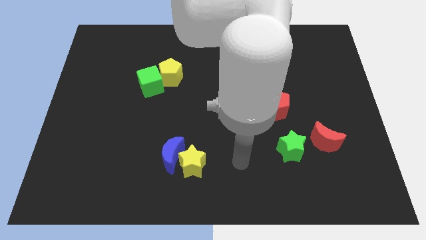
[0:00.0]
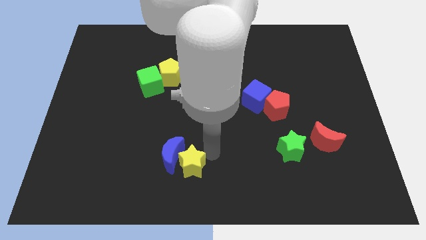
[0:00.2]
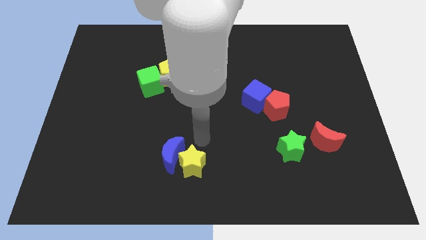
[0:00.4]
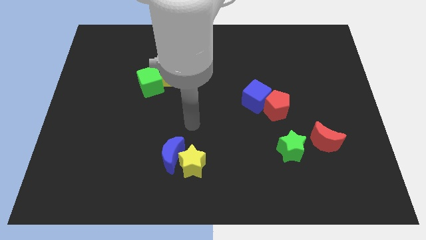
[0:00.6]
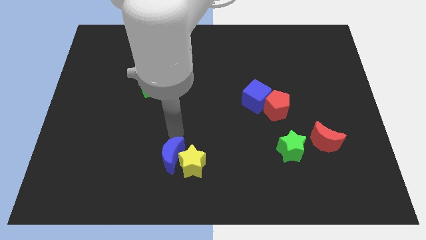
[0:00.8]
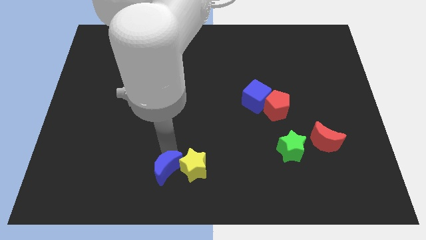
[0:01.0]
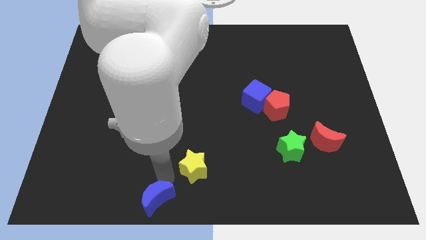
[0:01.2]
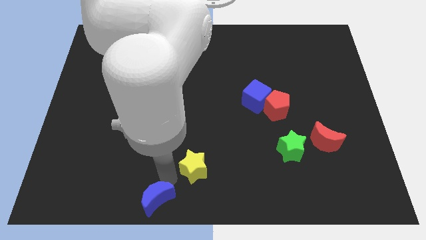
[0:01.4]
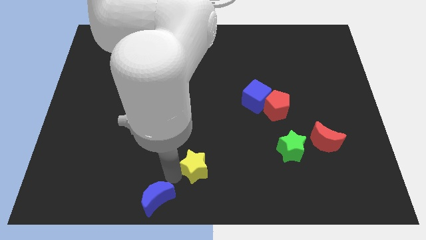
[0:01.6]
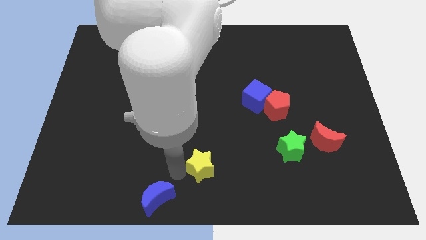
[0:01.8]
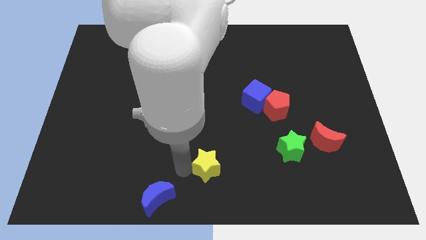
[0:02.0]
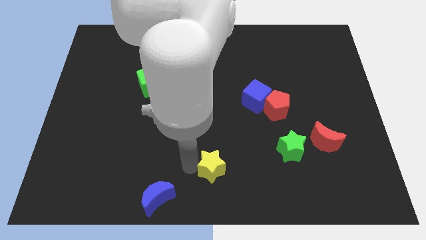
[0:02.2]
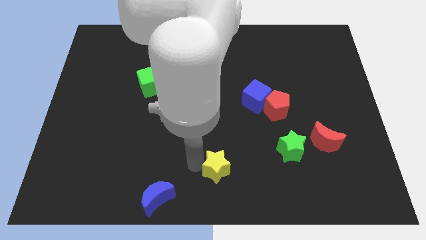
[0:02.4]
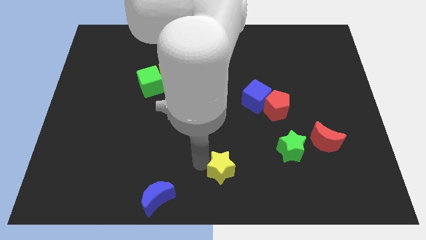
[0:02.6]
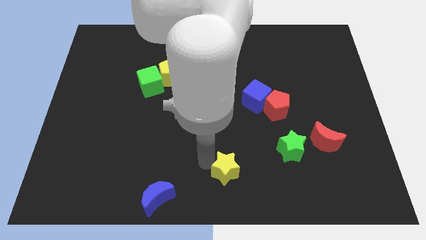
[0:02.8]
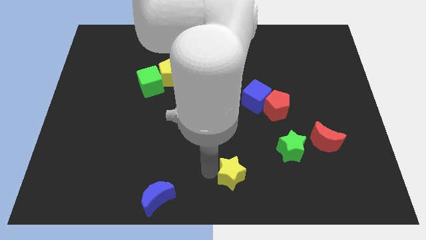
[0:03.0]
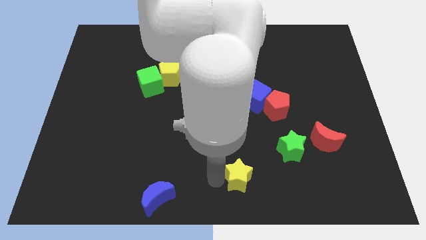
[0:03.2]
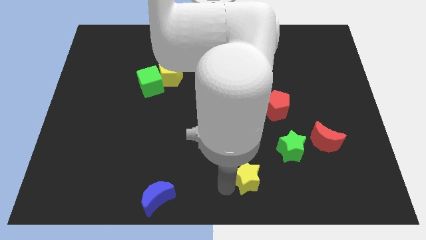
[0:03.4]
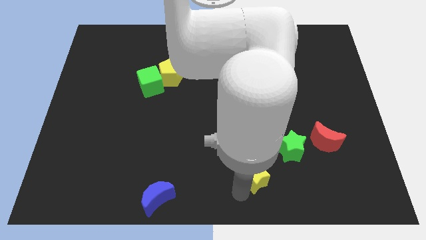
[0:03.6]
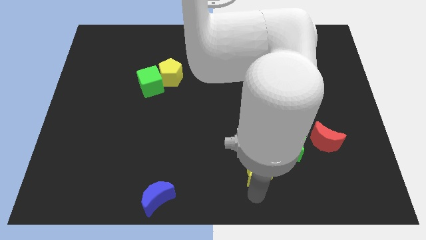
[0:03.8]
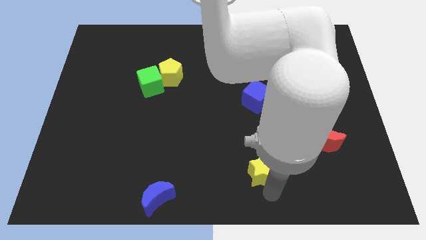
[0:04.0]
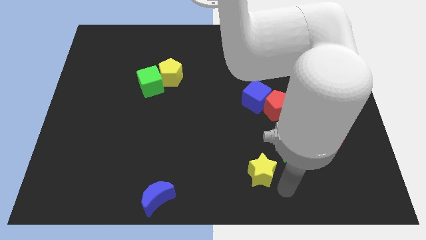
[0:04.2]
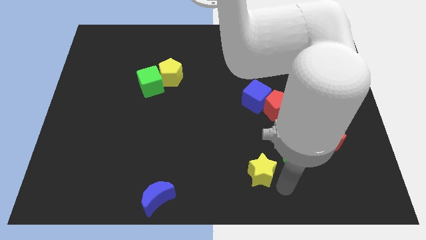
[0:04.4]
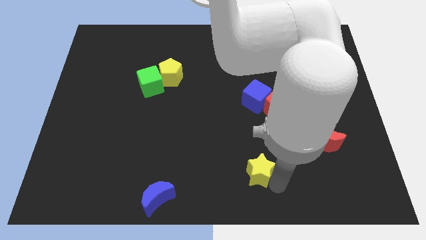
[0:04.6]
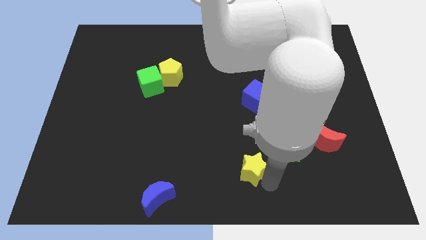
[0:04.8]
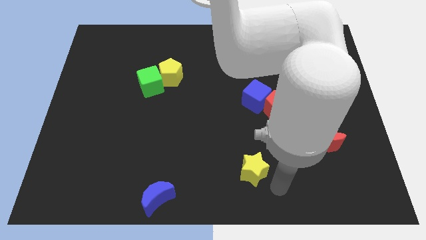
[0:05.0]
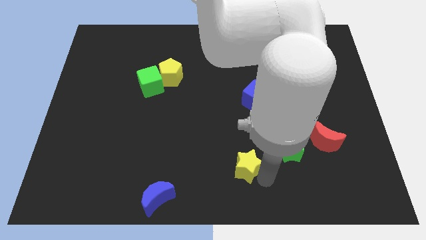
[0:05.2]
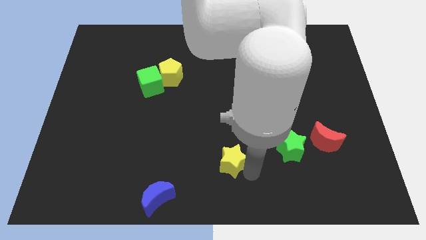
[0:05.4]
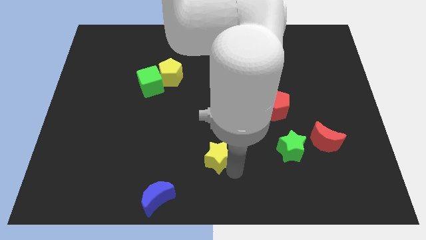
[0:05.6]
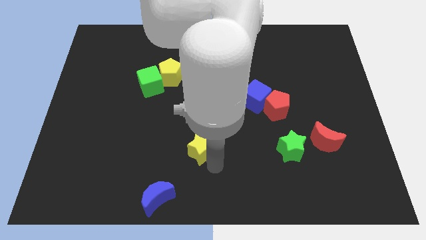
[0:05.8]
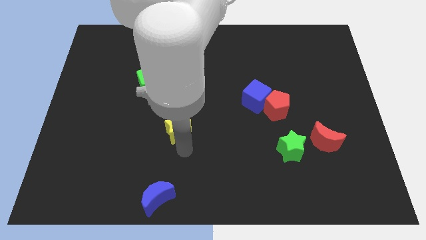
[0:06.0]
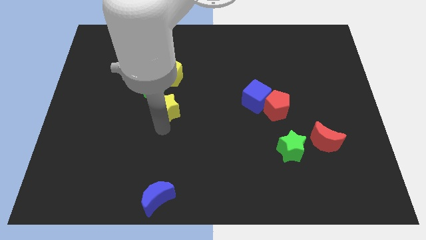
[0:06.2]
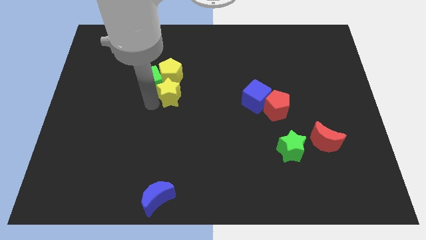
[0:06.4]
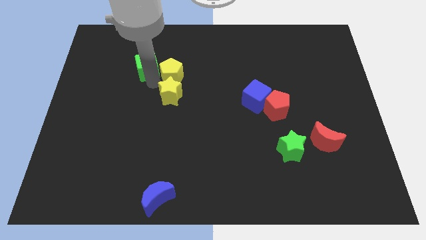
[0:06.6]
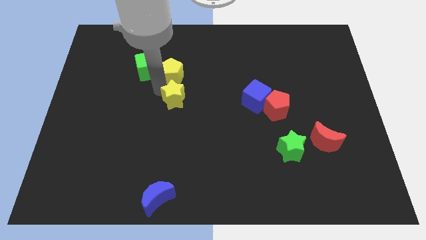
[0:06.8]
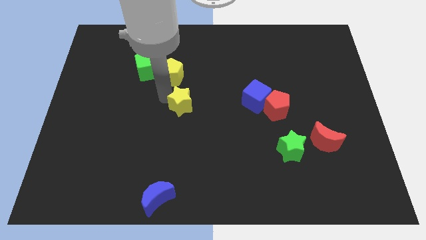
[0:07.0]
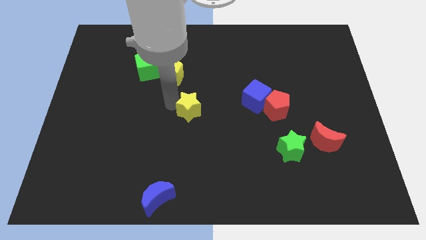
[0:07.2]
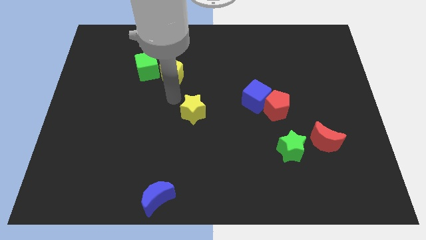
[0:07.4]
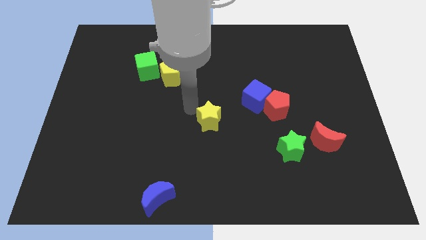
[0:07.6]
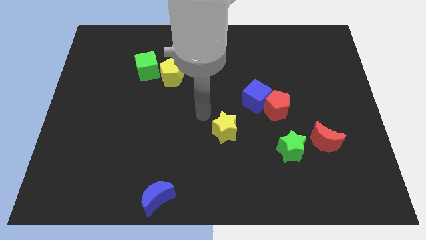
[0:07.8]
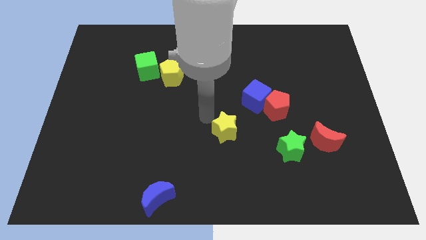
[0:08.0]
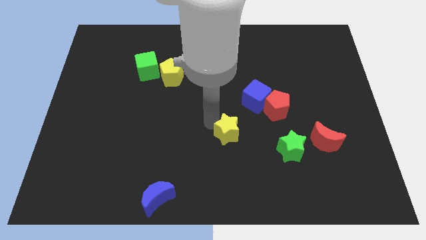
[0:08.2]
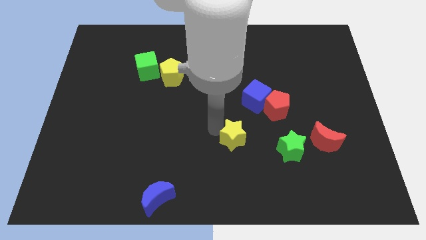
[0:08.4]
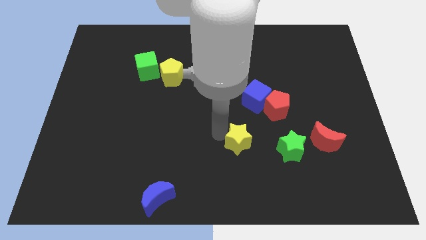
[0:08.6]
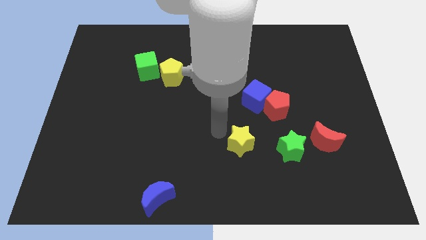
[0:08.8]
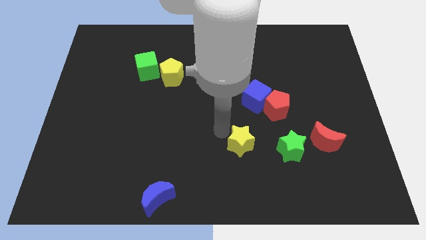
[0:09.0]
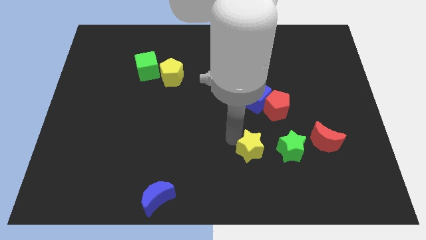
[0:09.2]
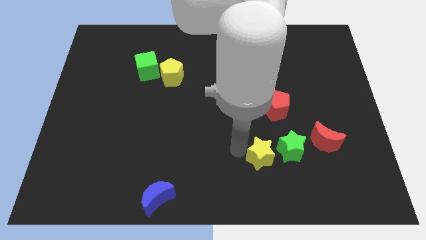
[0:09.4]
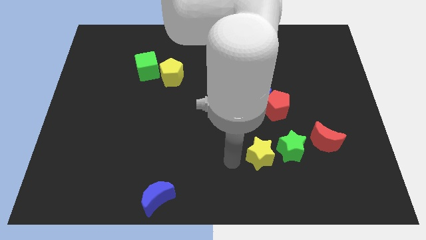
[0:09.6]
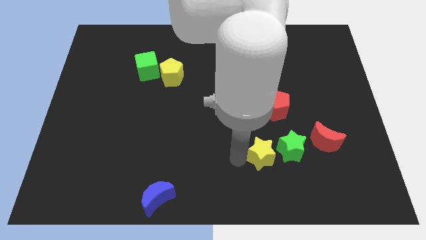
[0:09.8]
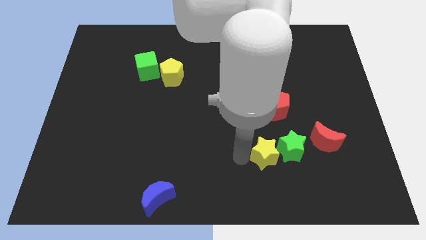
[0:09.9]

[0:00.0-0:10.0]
put the yellow star to the green star

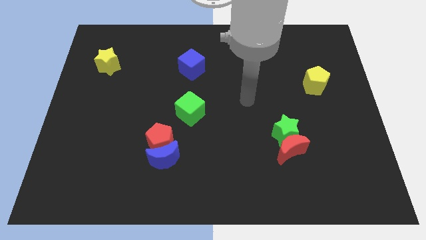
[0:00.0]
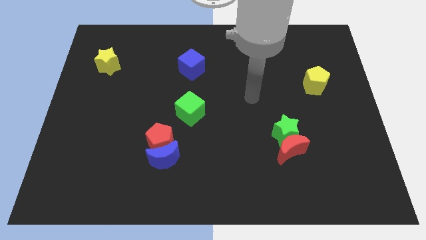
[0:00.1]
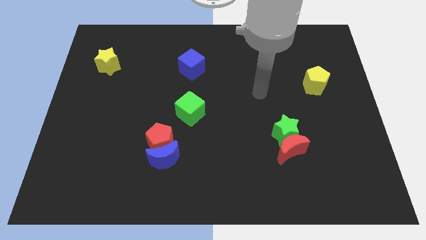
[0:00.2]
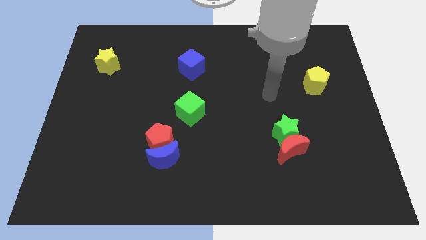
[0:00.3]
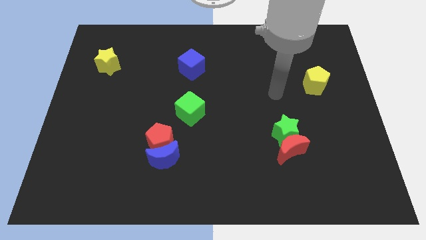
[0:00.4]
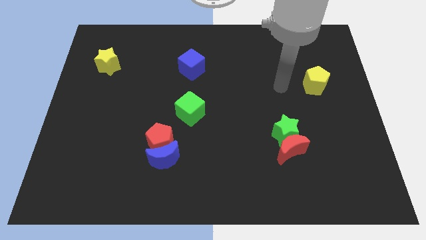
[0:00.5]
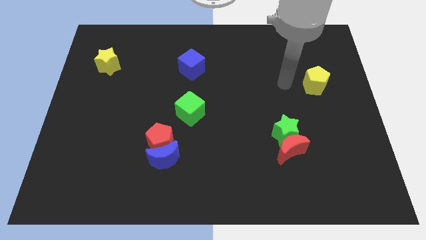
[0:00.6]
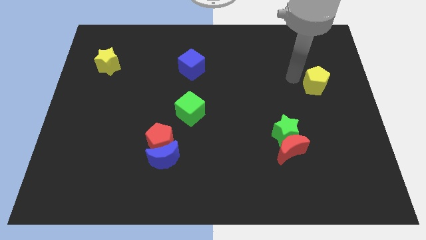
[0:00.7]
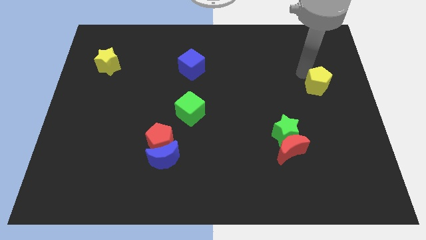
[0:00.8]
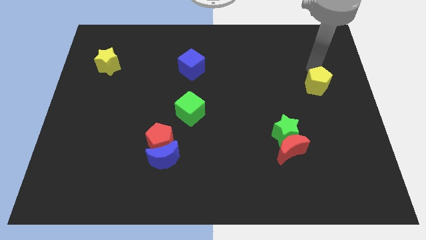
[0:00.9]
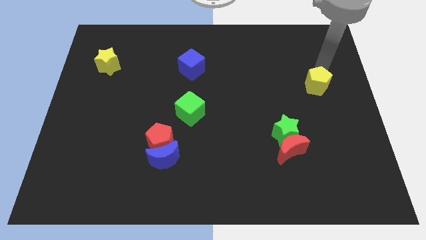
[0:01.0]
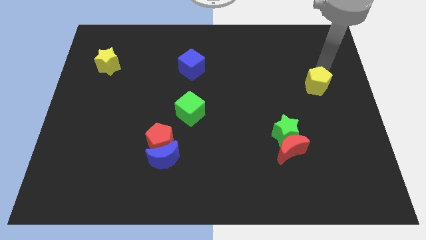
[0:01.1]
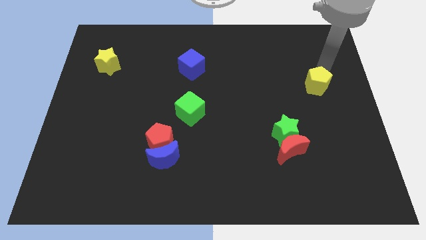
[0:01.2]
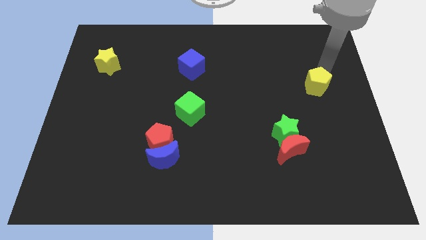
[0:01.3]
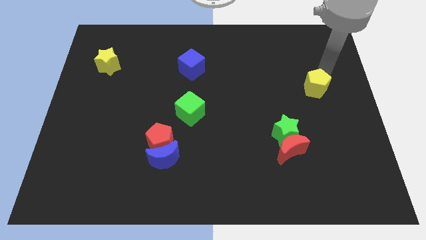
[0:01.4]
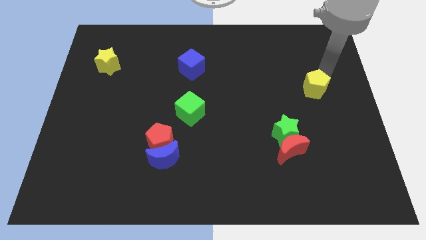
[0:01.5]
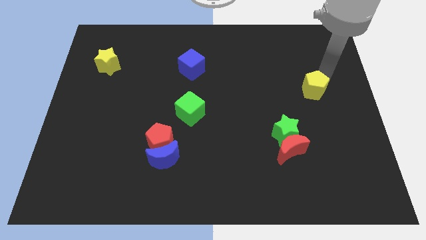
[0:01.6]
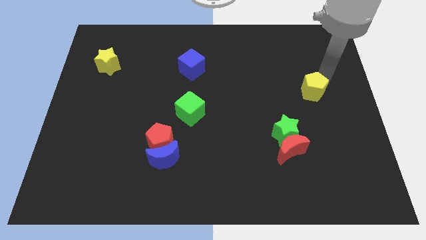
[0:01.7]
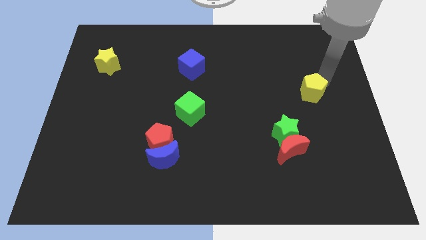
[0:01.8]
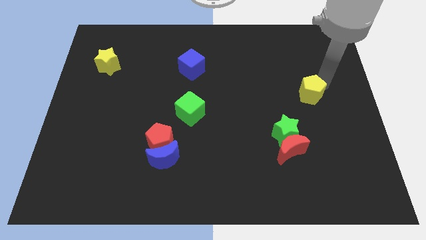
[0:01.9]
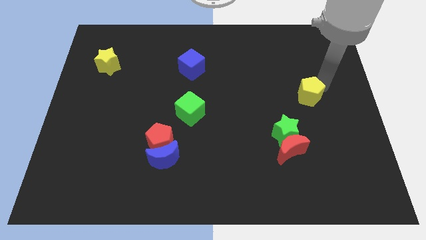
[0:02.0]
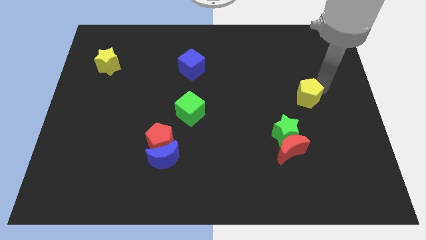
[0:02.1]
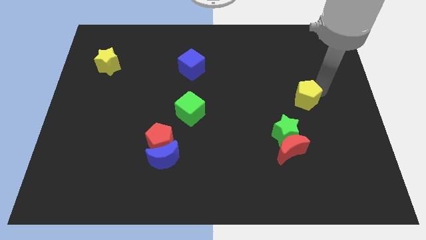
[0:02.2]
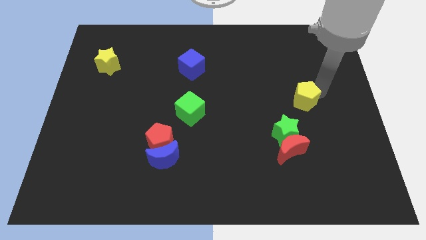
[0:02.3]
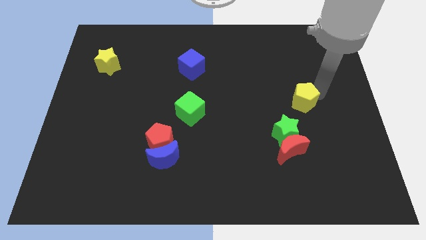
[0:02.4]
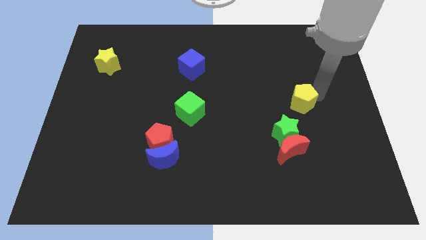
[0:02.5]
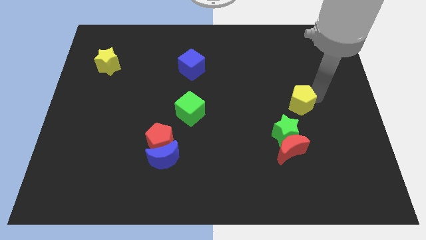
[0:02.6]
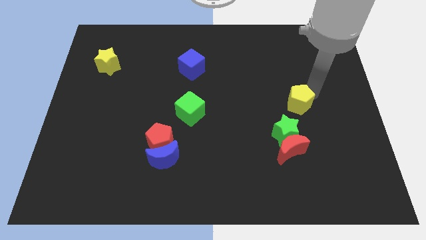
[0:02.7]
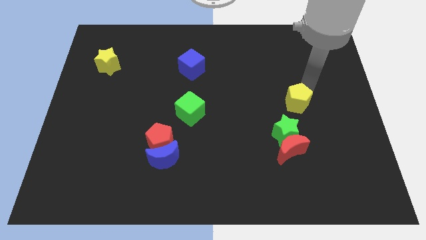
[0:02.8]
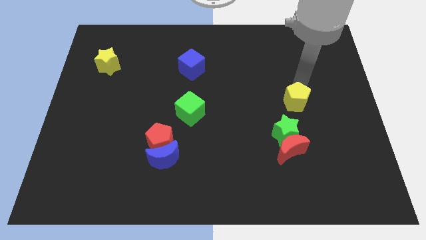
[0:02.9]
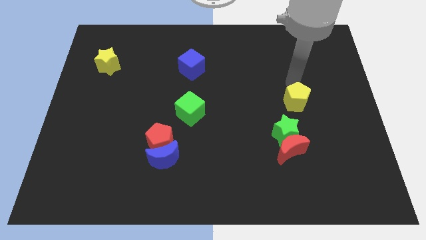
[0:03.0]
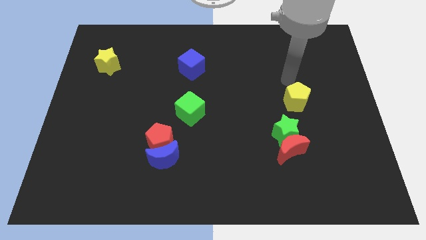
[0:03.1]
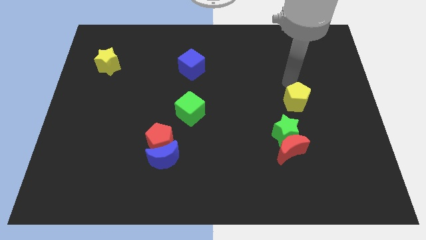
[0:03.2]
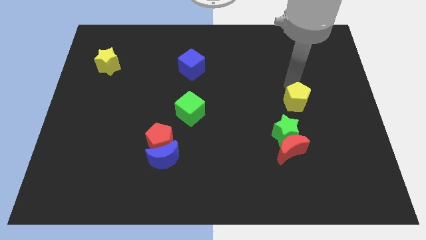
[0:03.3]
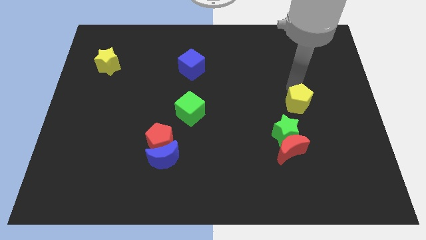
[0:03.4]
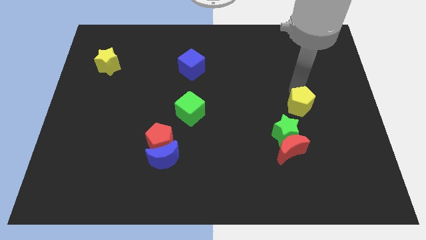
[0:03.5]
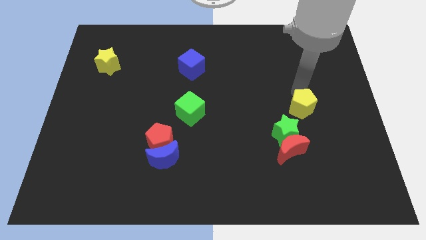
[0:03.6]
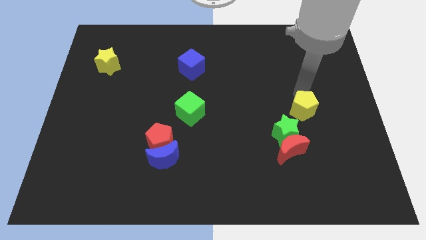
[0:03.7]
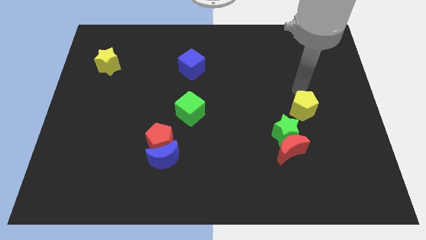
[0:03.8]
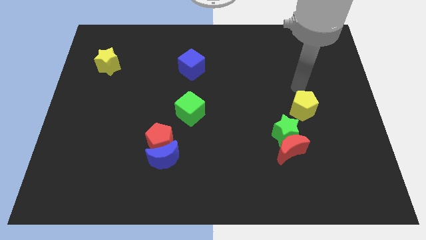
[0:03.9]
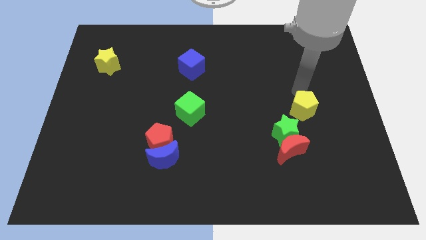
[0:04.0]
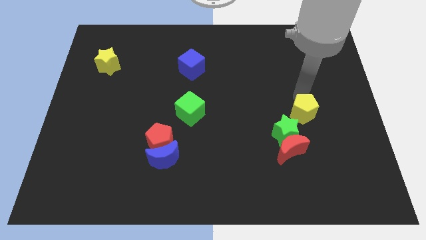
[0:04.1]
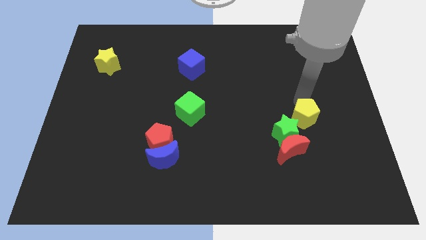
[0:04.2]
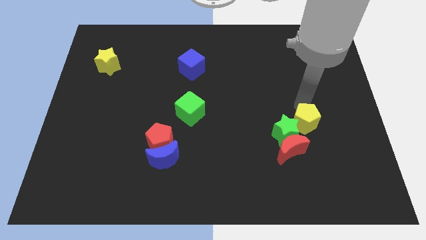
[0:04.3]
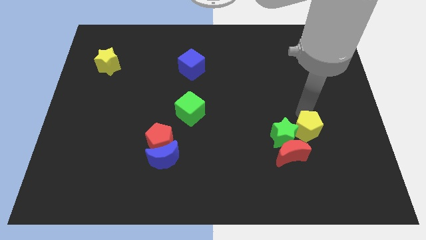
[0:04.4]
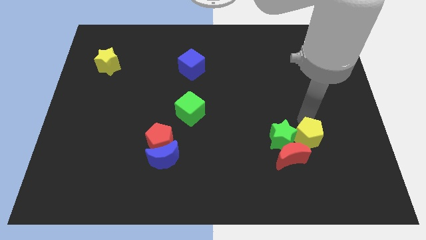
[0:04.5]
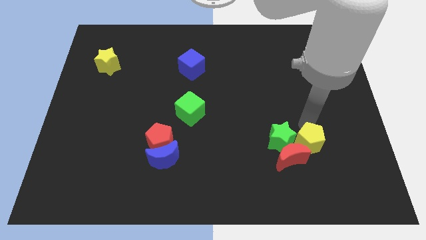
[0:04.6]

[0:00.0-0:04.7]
put the yellow pentagon to the red moon
